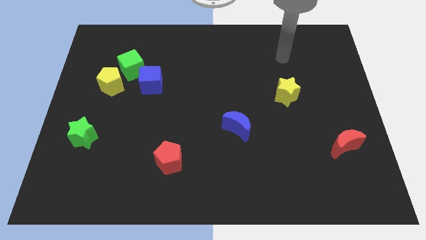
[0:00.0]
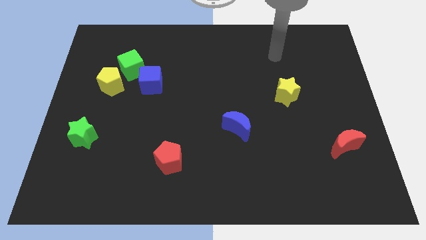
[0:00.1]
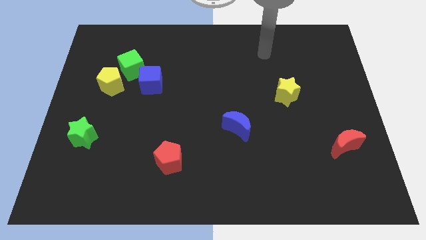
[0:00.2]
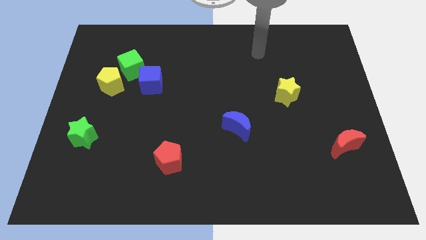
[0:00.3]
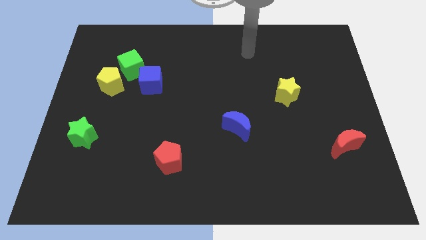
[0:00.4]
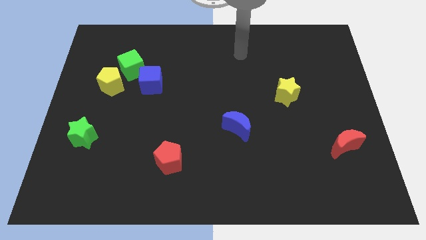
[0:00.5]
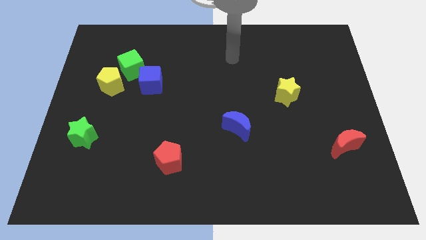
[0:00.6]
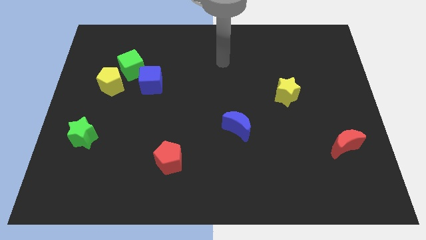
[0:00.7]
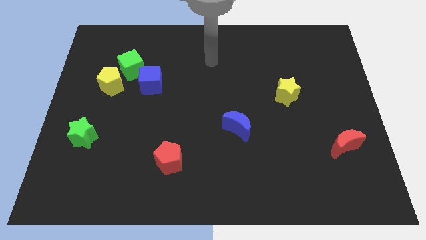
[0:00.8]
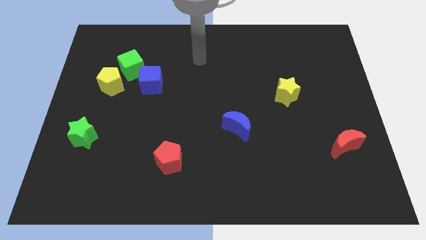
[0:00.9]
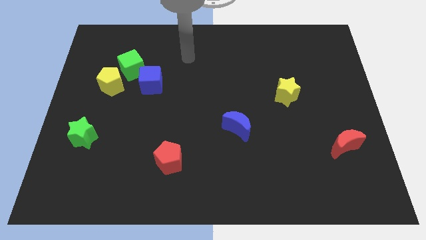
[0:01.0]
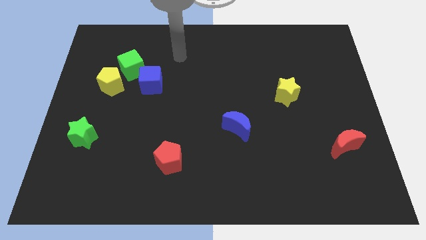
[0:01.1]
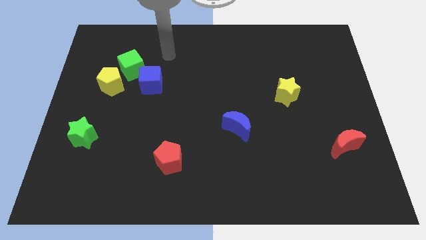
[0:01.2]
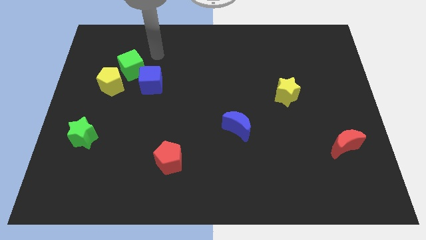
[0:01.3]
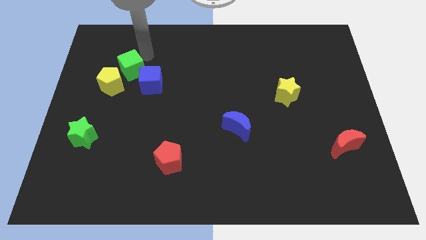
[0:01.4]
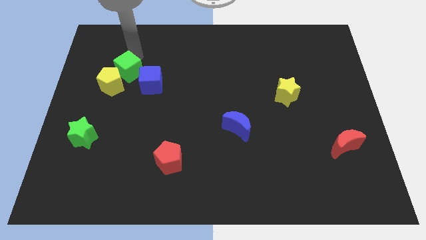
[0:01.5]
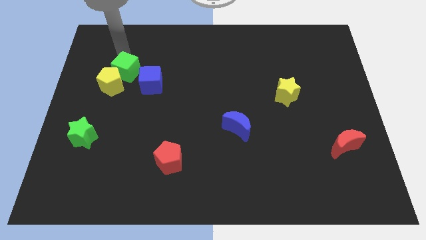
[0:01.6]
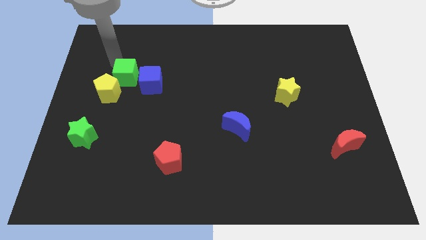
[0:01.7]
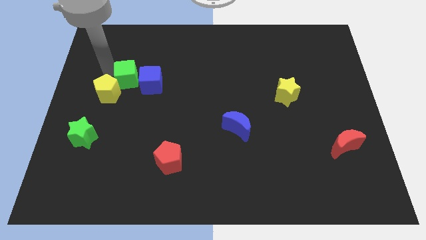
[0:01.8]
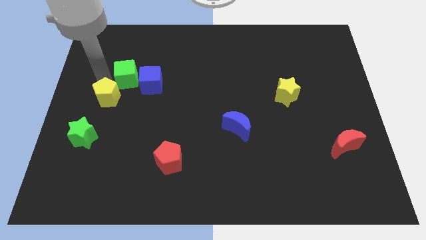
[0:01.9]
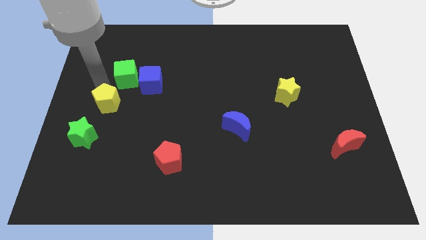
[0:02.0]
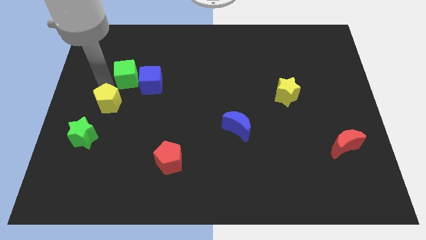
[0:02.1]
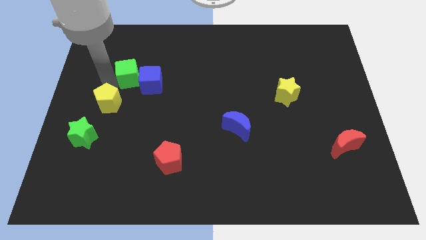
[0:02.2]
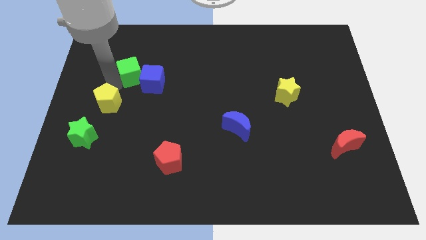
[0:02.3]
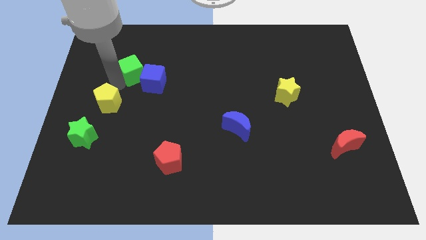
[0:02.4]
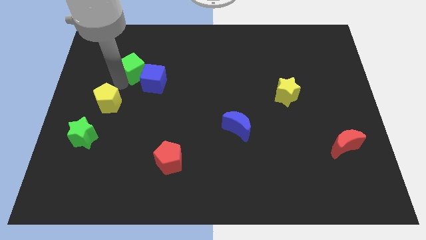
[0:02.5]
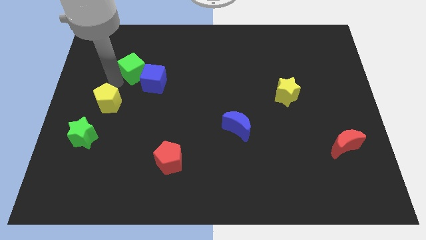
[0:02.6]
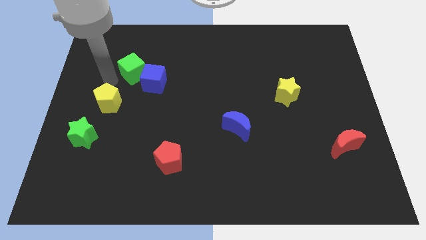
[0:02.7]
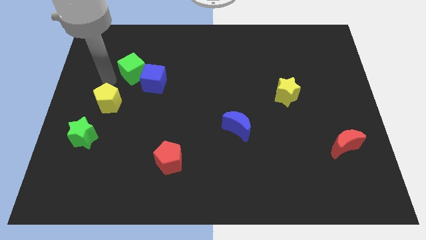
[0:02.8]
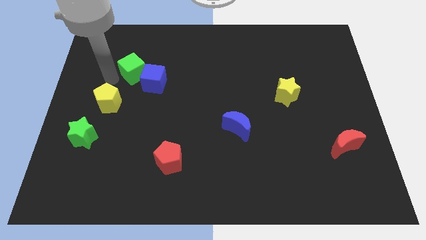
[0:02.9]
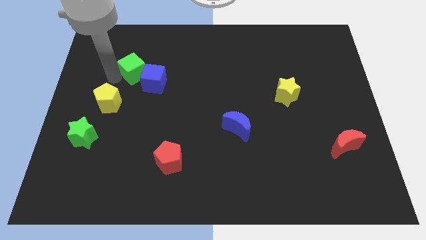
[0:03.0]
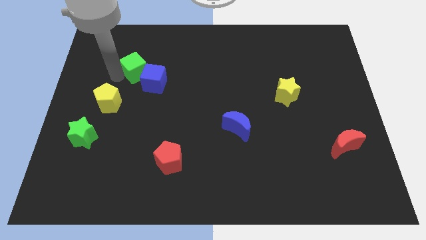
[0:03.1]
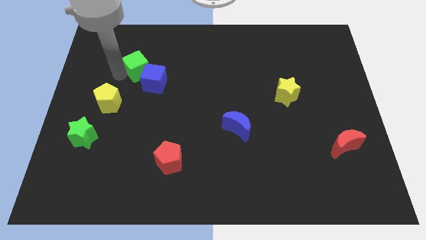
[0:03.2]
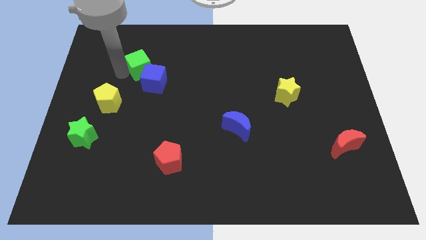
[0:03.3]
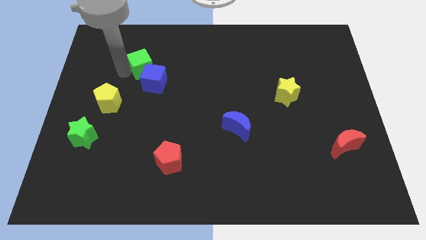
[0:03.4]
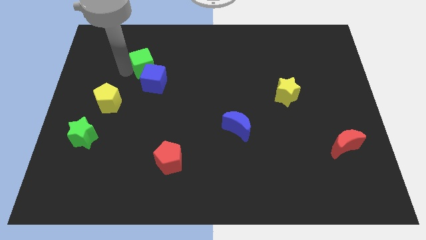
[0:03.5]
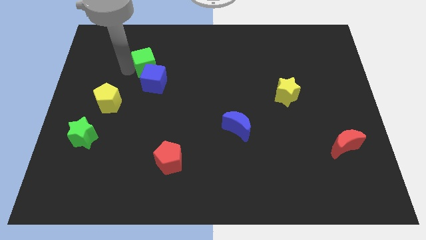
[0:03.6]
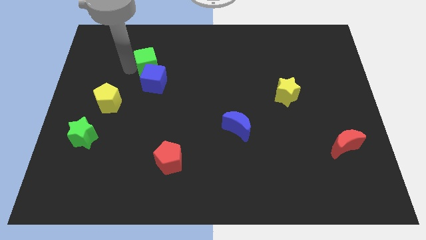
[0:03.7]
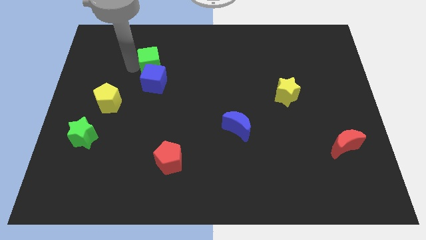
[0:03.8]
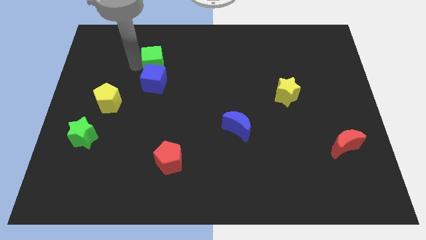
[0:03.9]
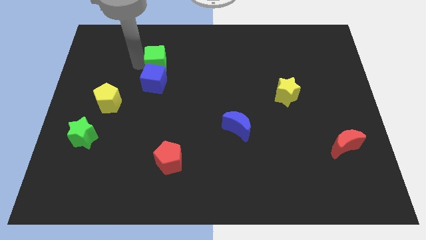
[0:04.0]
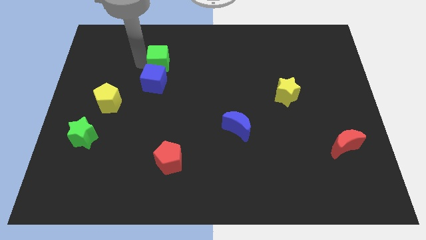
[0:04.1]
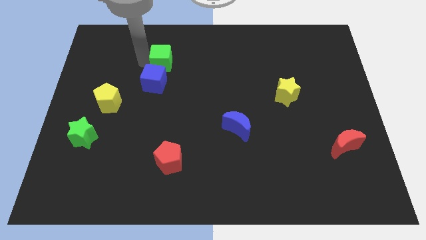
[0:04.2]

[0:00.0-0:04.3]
slightly move the green cube right

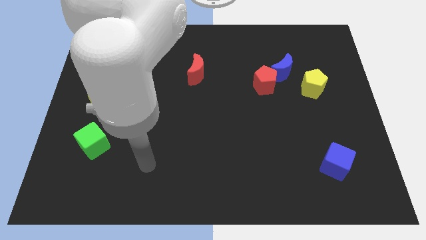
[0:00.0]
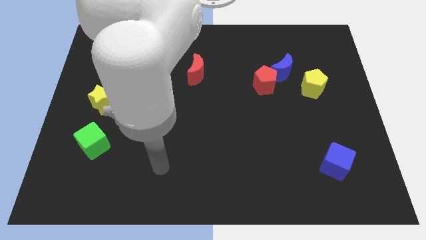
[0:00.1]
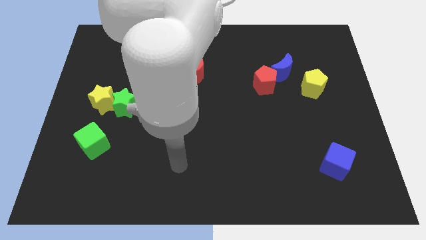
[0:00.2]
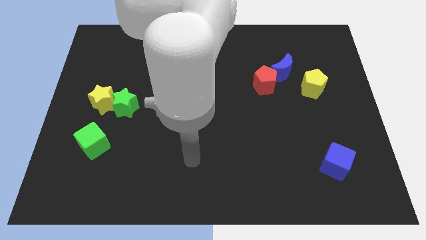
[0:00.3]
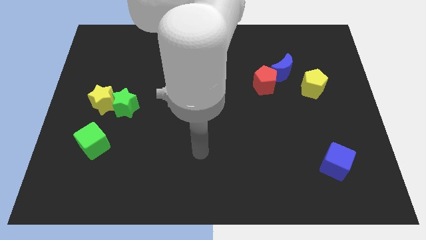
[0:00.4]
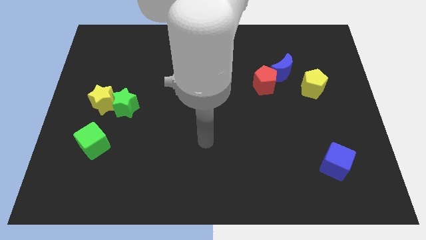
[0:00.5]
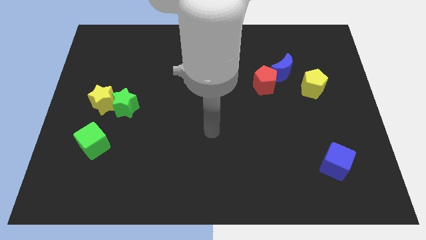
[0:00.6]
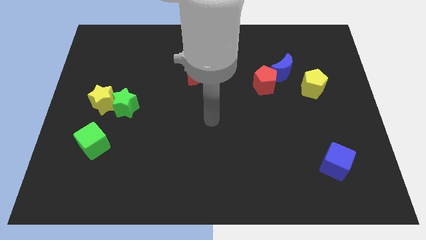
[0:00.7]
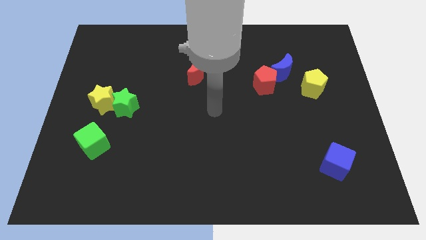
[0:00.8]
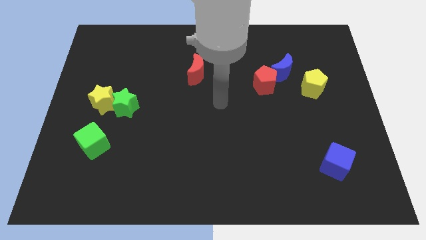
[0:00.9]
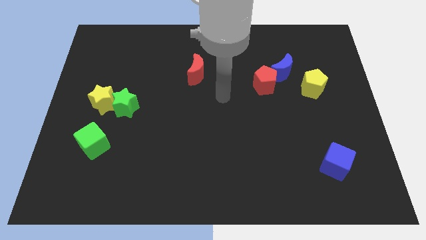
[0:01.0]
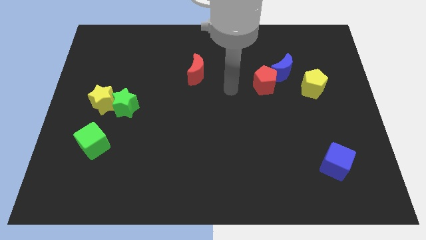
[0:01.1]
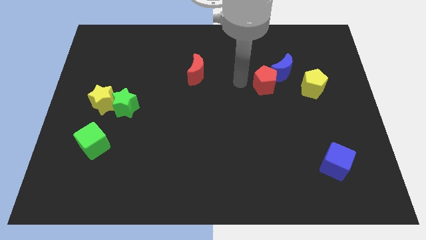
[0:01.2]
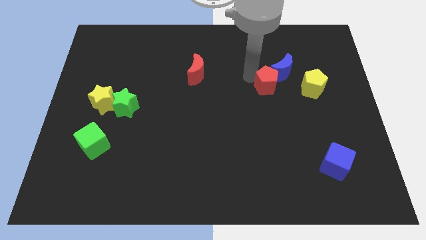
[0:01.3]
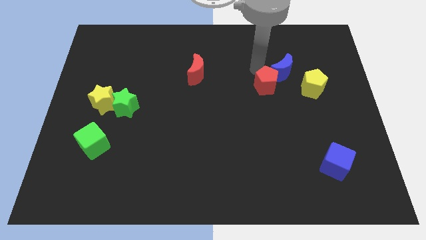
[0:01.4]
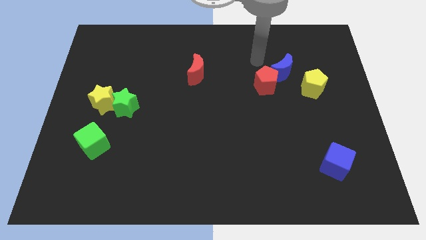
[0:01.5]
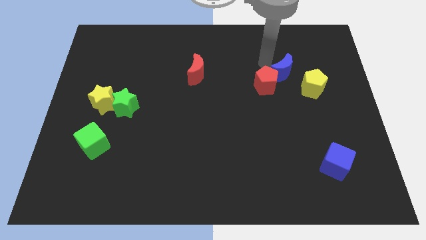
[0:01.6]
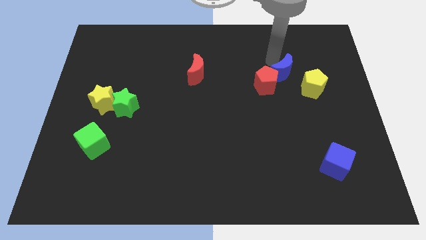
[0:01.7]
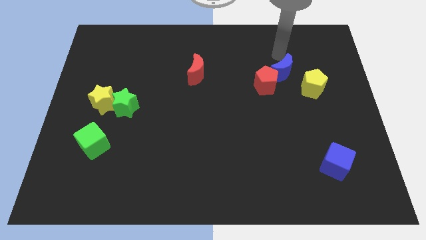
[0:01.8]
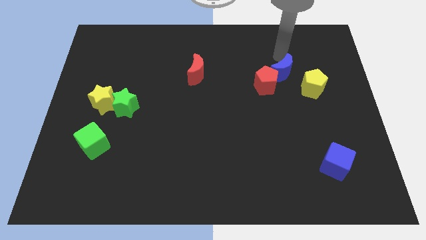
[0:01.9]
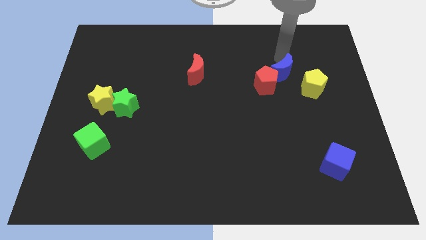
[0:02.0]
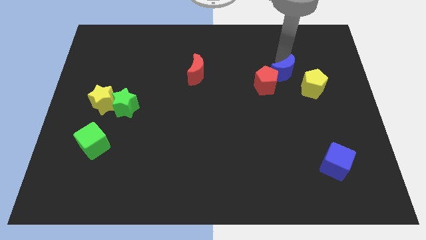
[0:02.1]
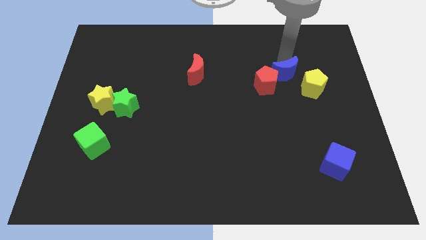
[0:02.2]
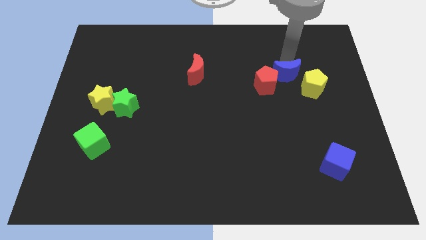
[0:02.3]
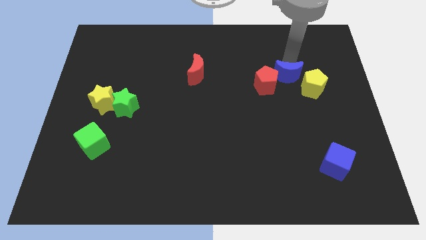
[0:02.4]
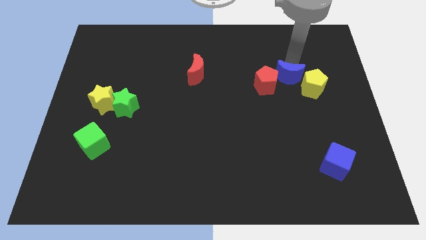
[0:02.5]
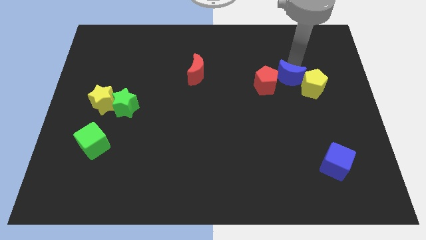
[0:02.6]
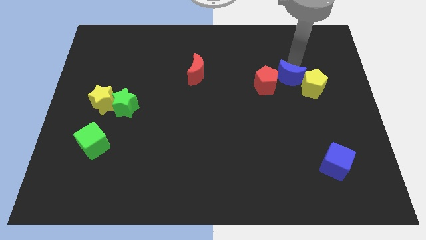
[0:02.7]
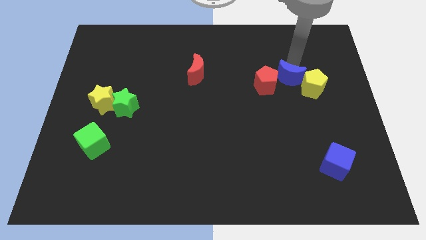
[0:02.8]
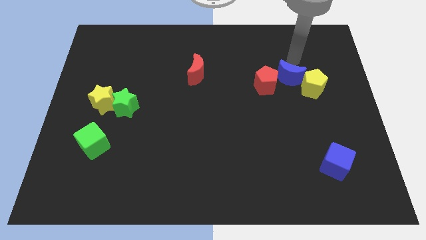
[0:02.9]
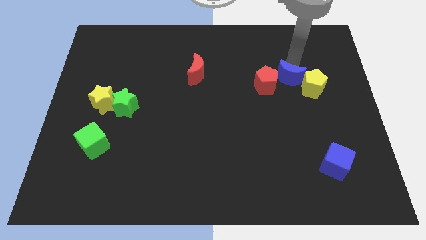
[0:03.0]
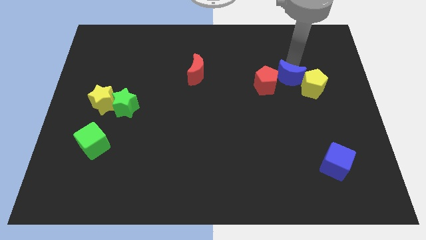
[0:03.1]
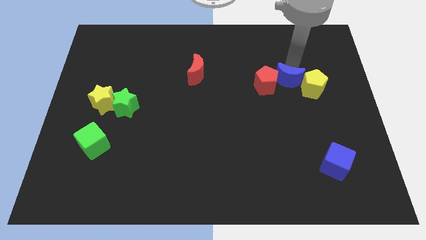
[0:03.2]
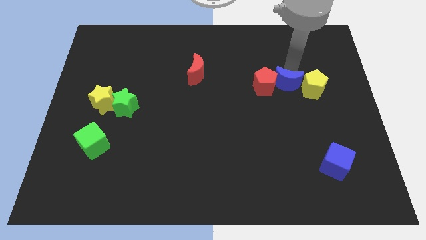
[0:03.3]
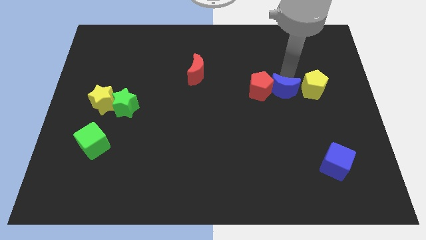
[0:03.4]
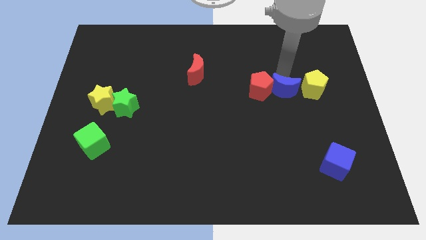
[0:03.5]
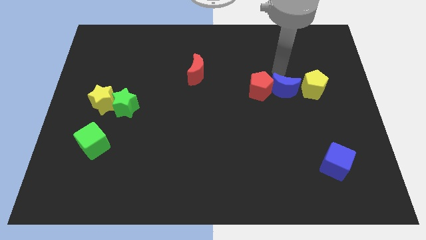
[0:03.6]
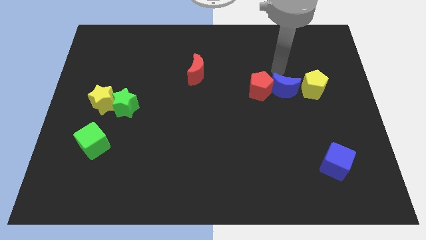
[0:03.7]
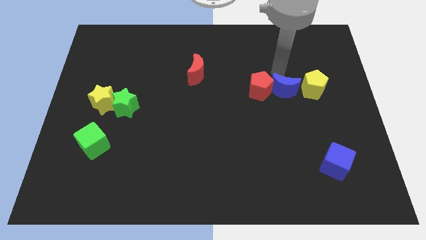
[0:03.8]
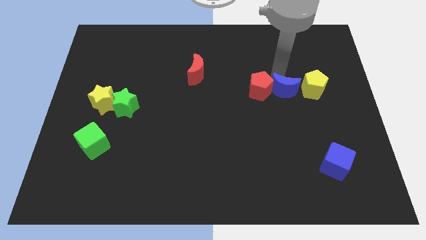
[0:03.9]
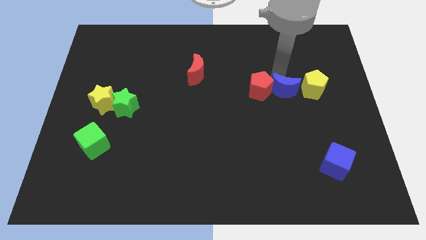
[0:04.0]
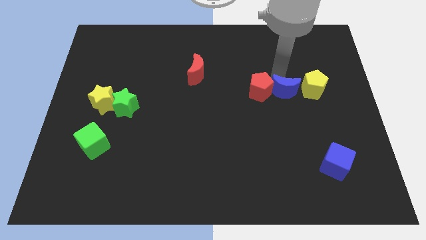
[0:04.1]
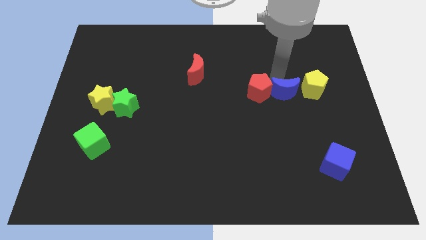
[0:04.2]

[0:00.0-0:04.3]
push the blue moon downwards a little
